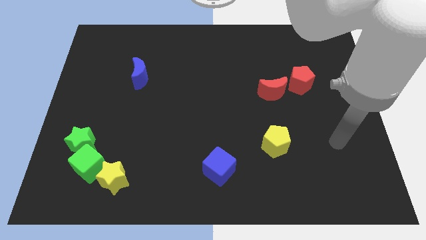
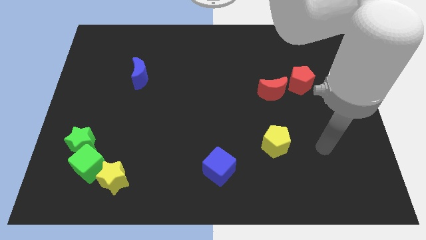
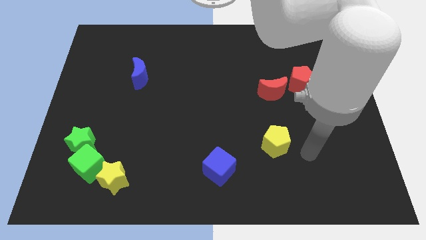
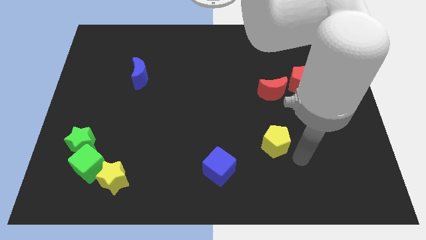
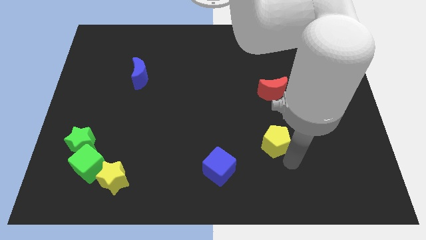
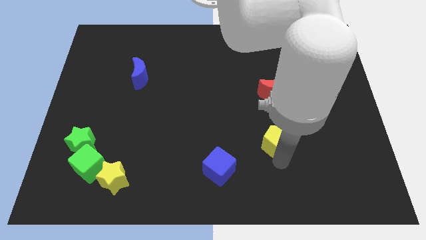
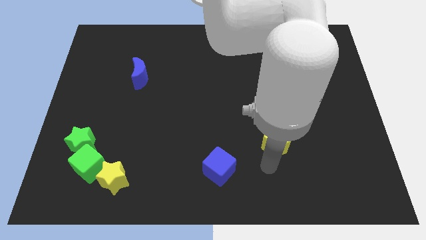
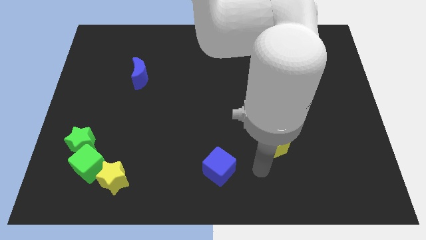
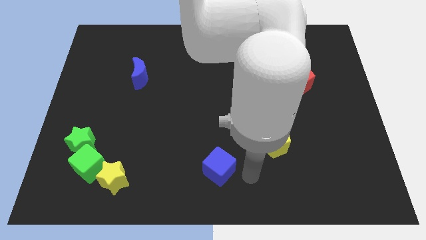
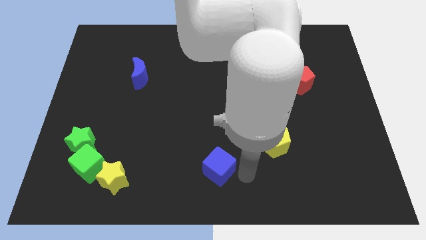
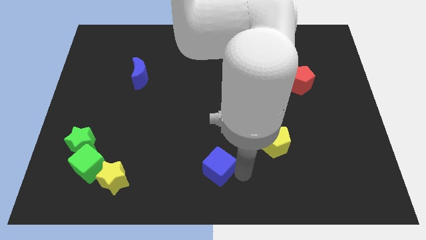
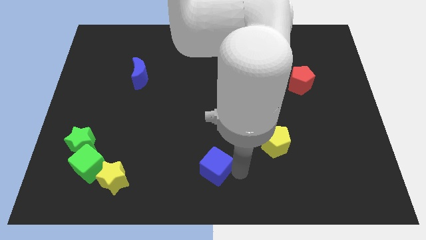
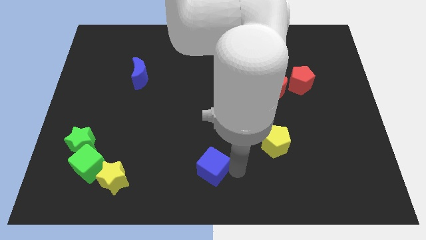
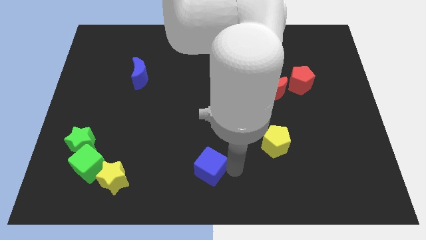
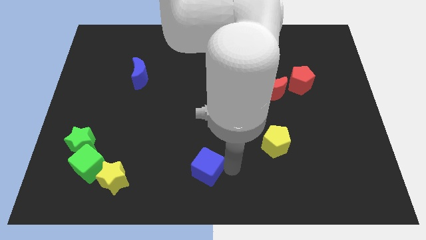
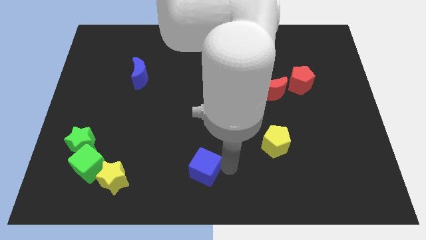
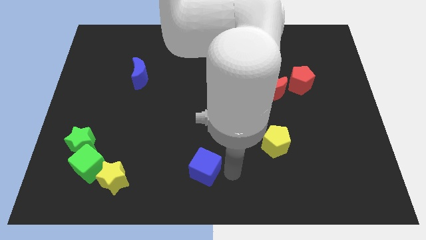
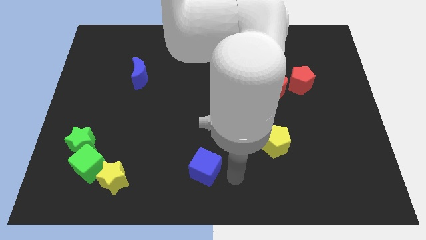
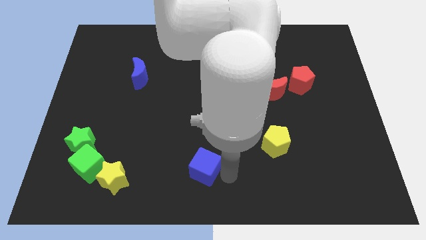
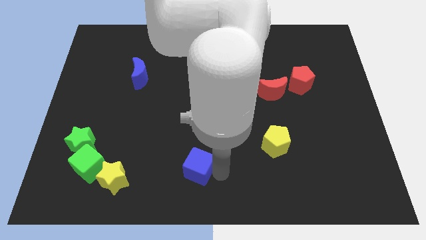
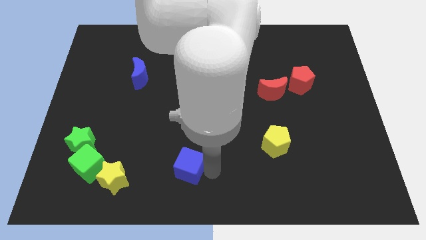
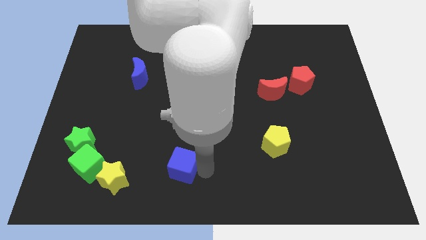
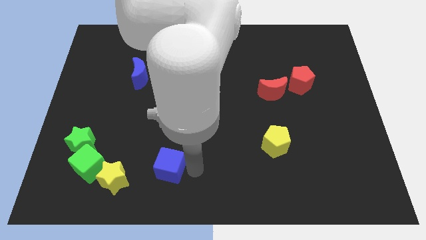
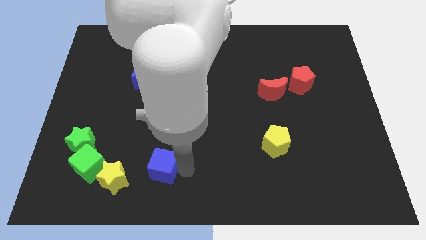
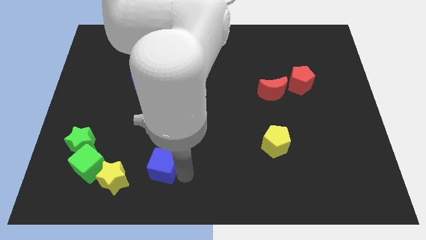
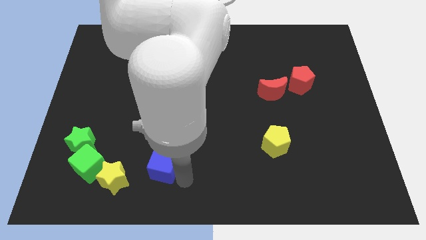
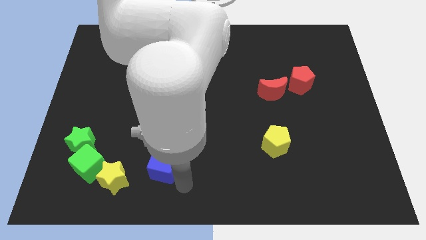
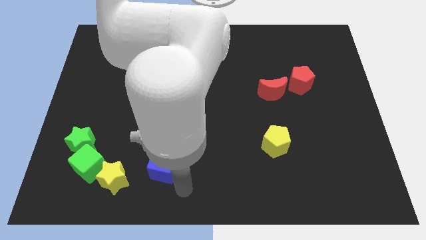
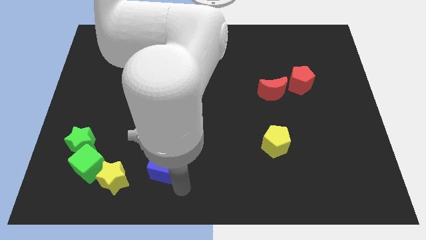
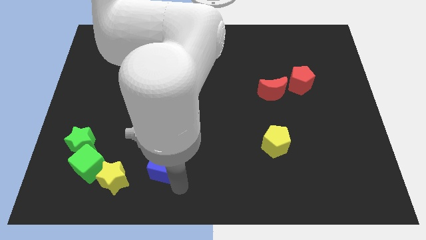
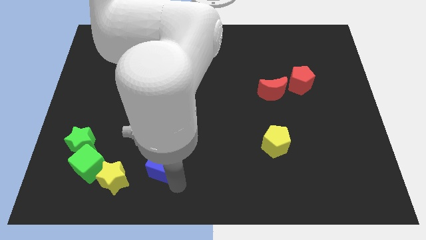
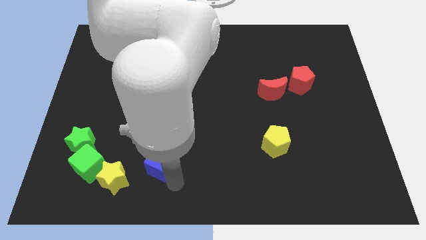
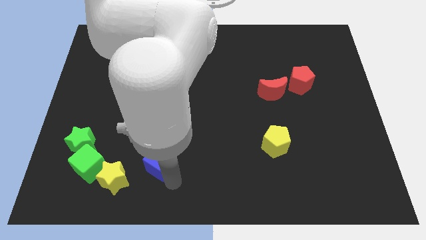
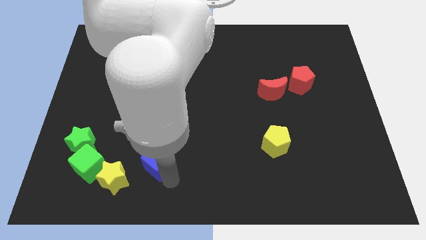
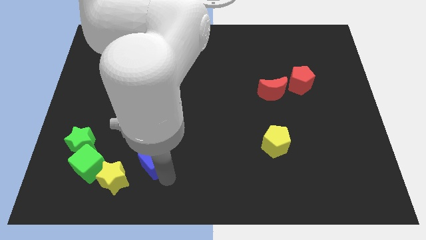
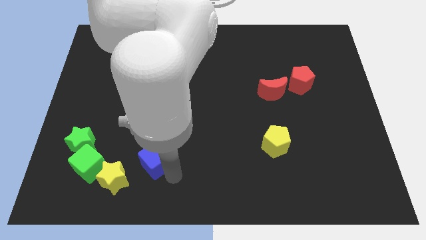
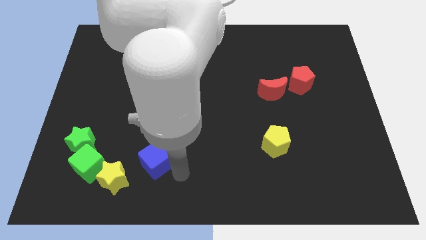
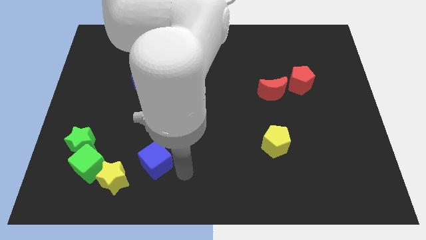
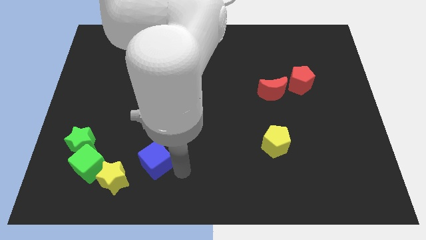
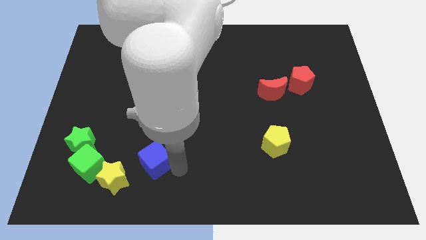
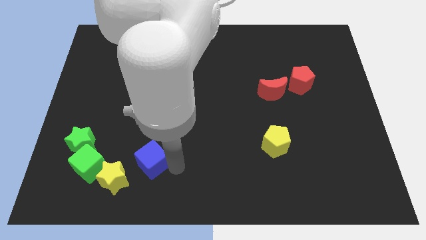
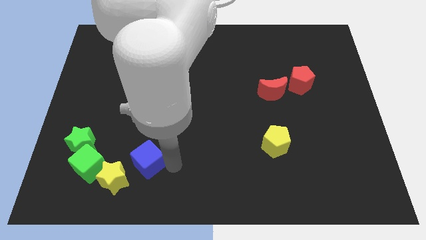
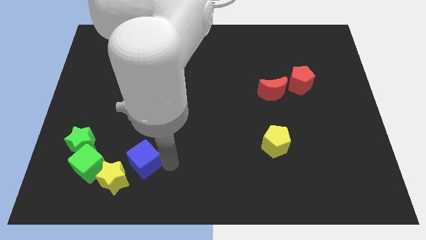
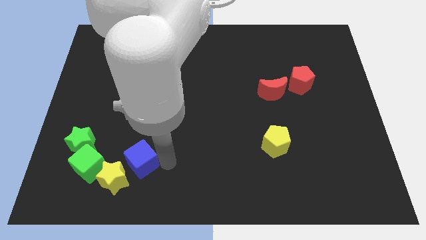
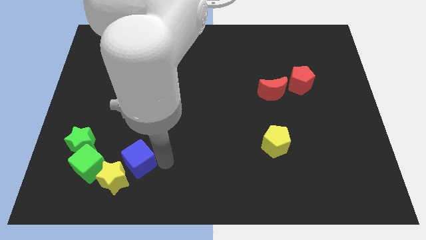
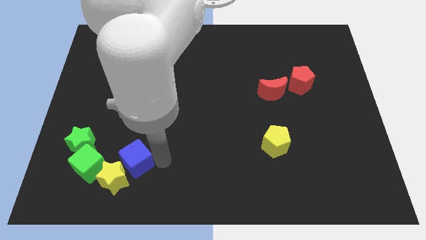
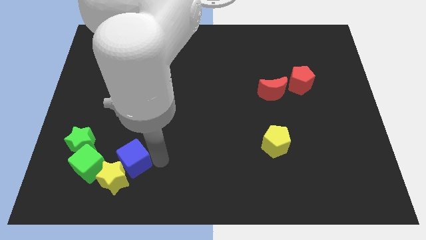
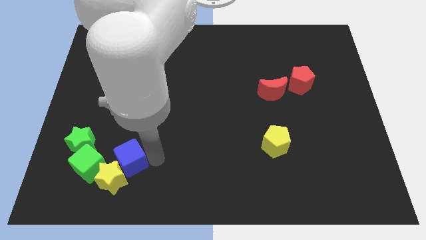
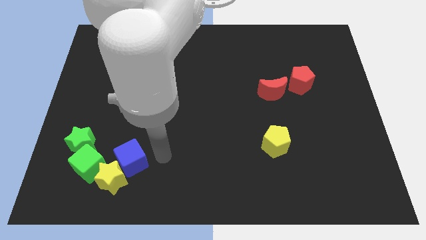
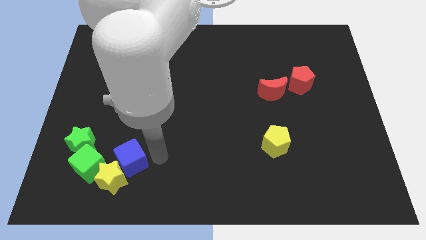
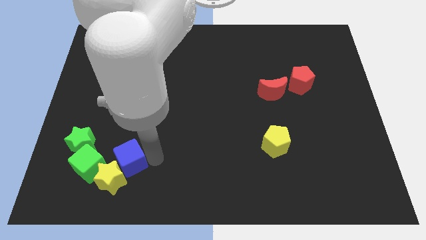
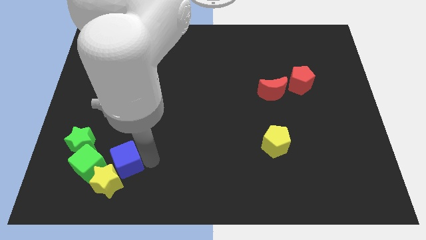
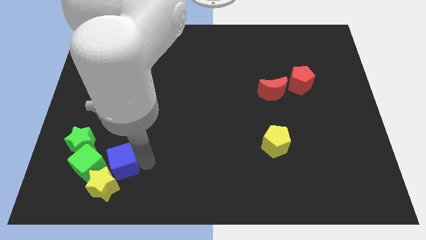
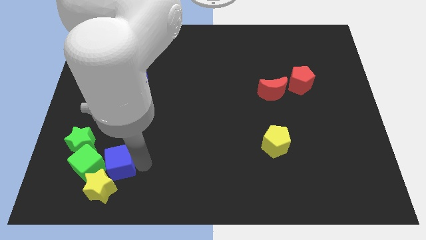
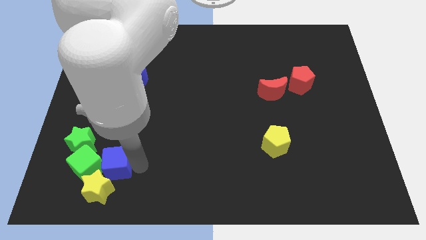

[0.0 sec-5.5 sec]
slide the blue cube close to the green cube

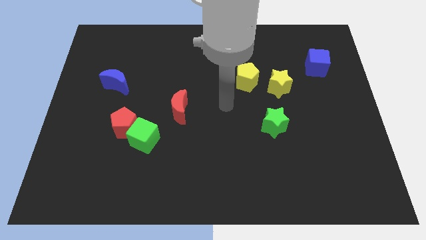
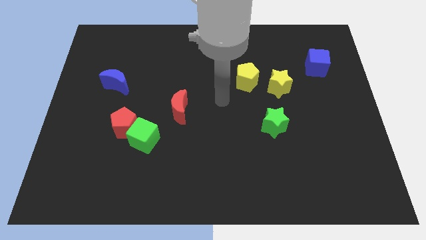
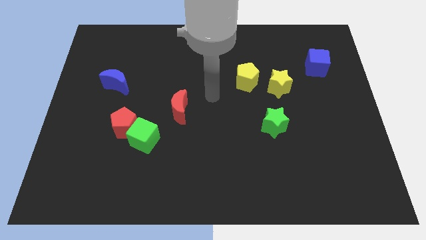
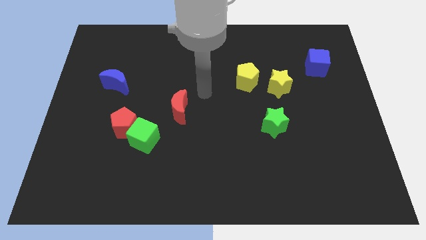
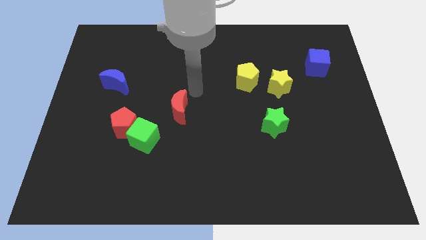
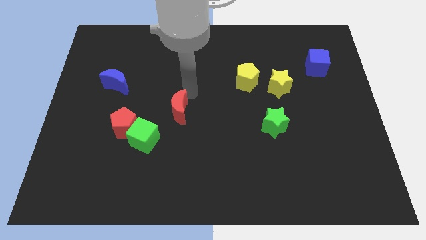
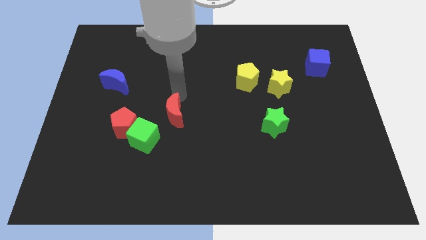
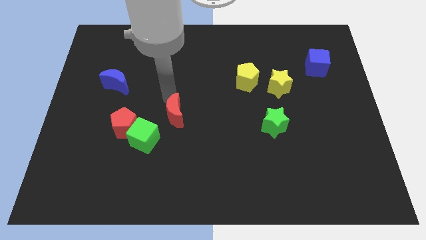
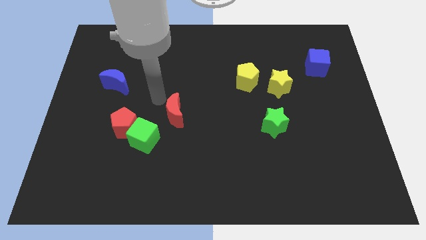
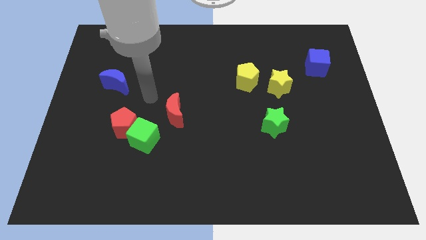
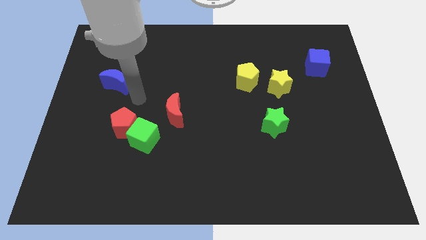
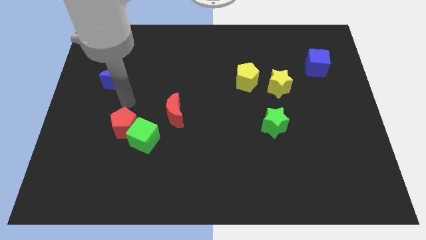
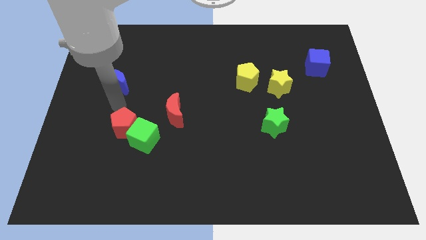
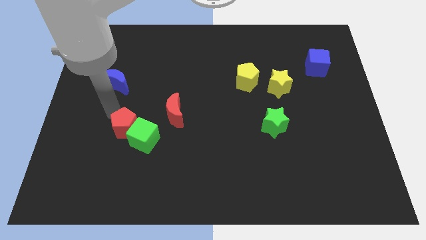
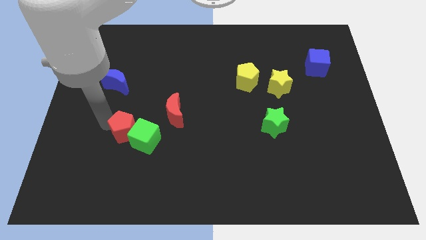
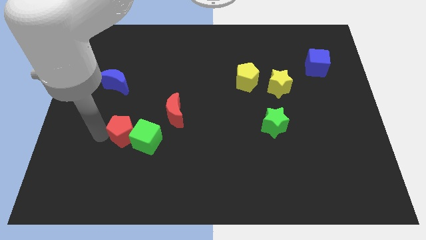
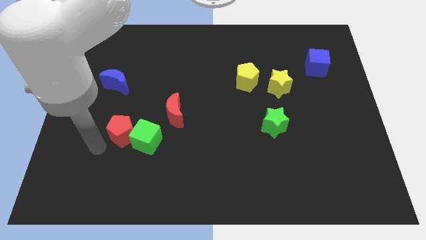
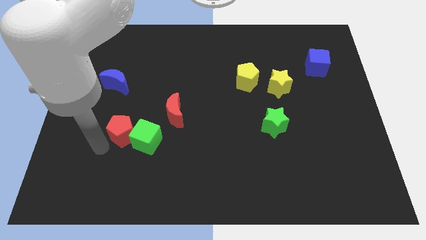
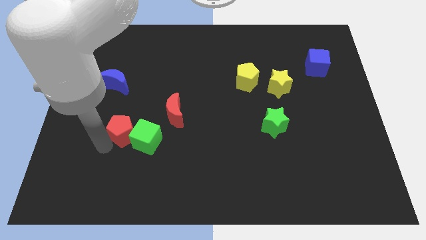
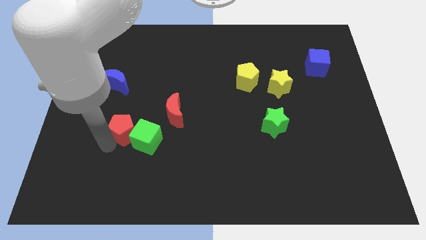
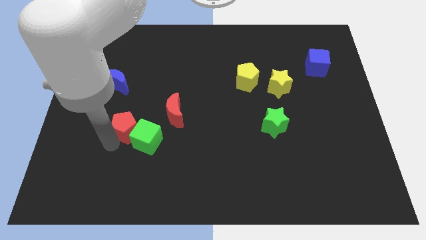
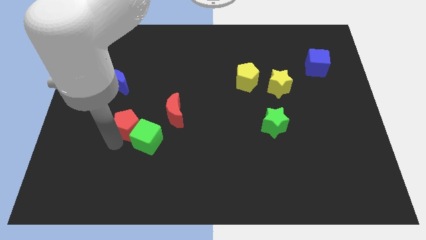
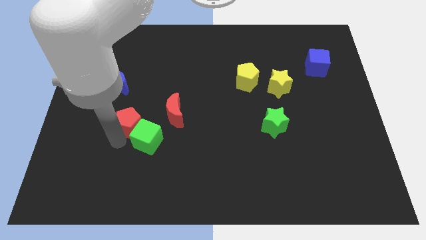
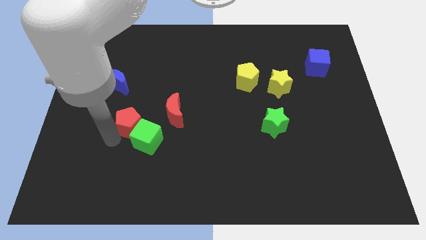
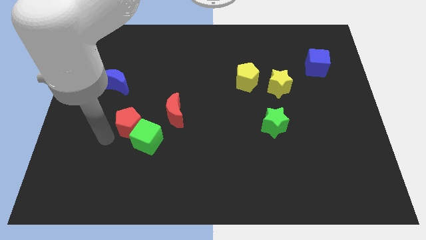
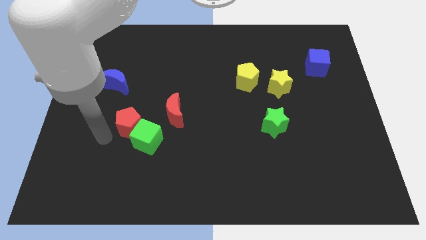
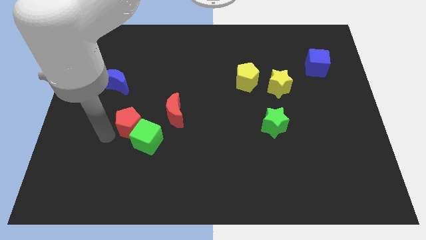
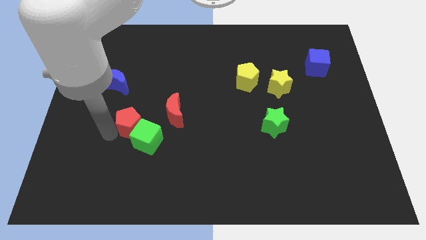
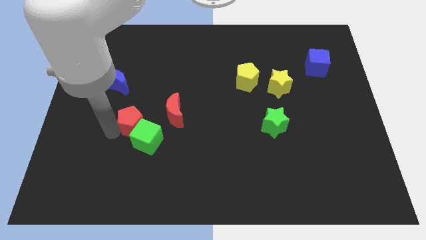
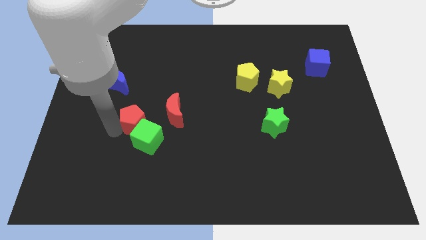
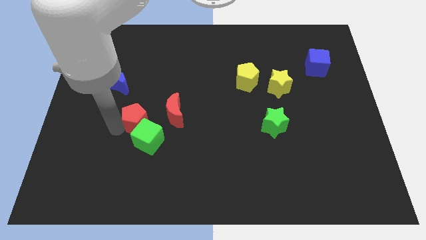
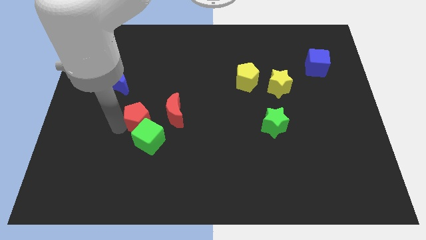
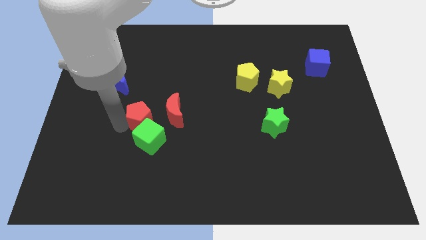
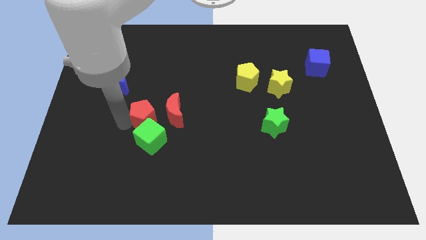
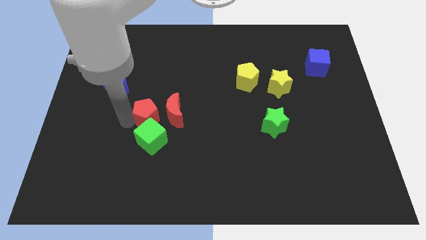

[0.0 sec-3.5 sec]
put the red pentagon next to the red moon
